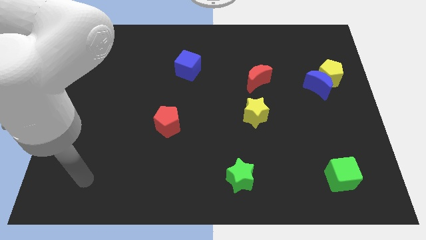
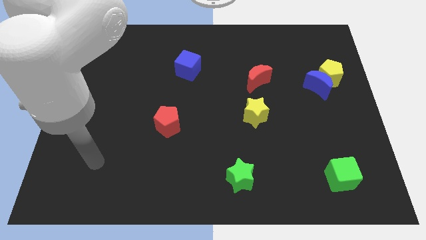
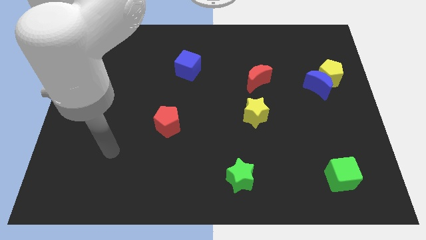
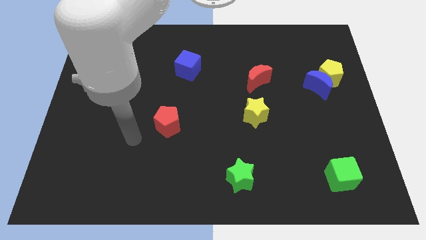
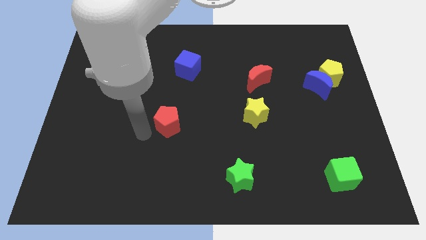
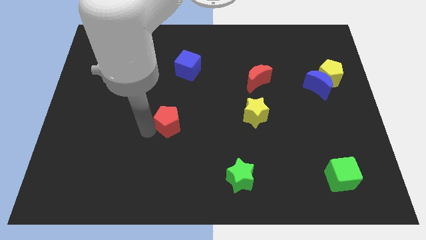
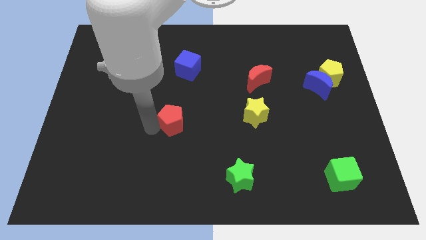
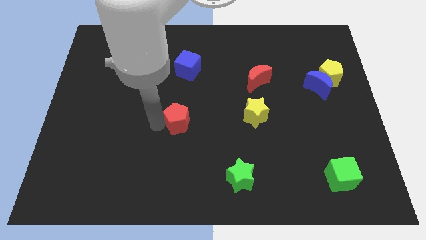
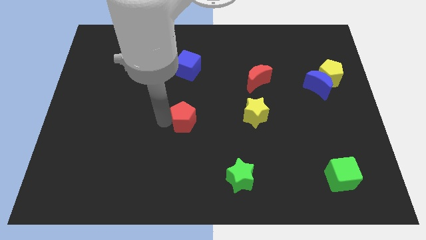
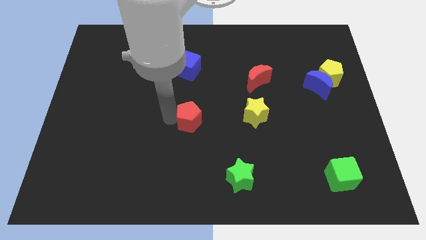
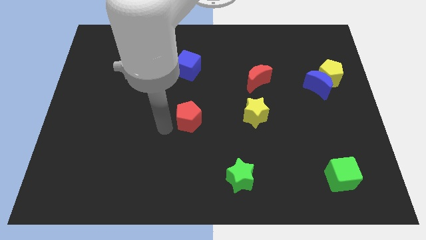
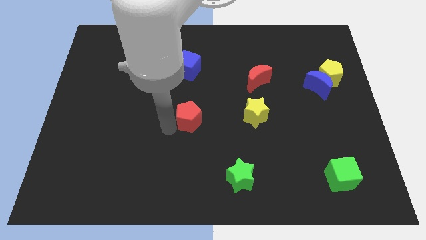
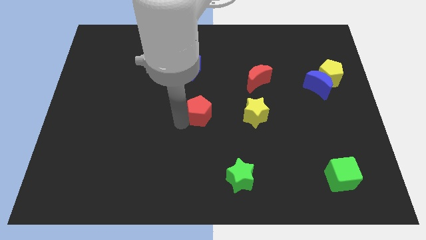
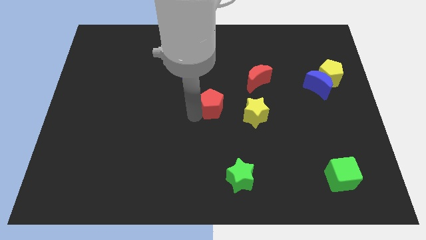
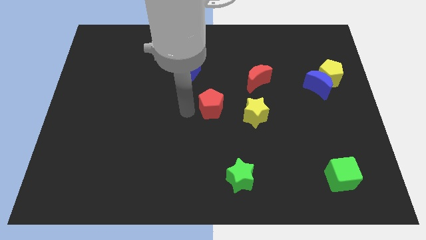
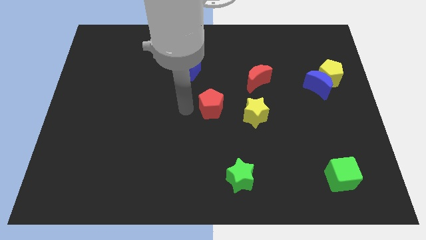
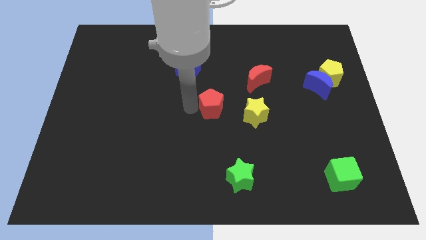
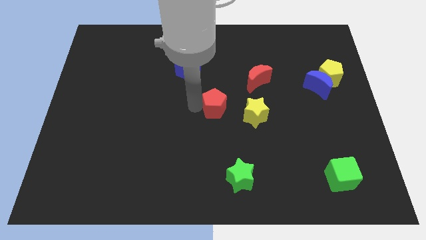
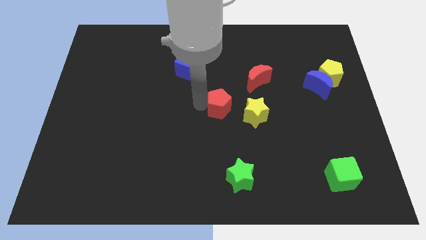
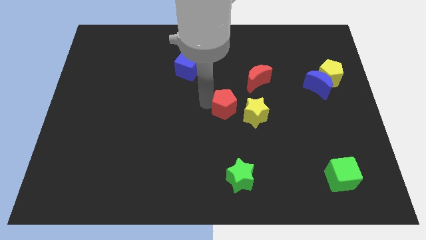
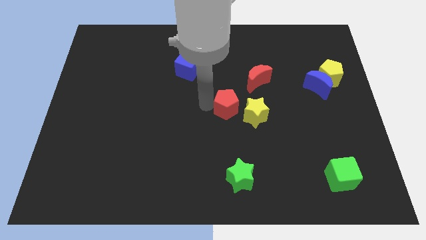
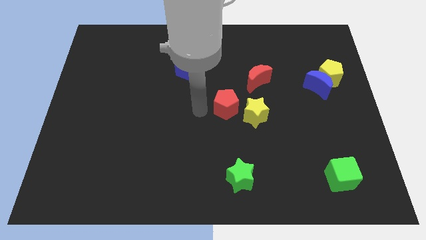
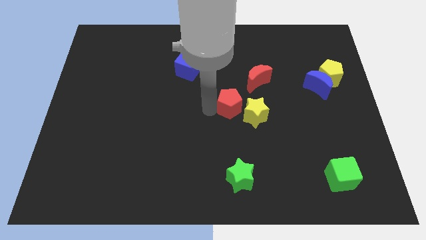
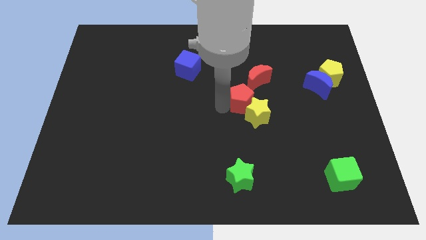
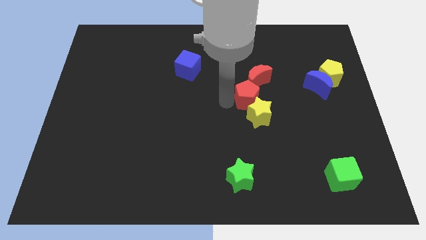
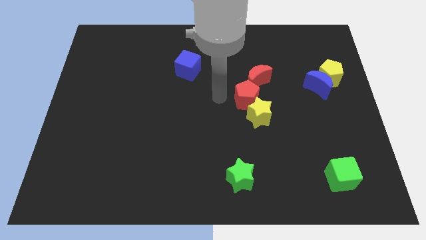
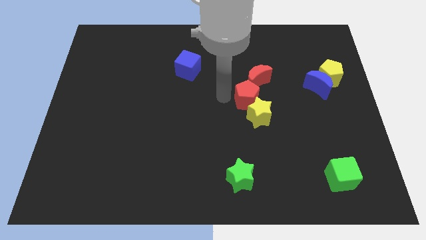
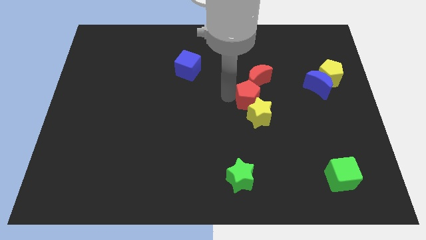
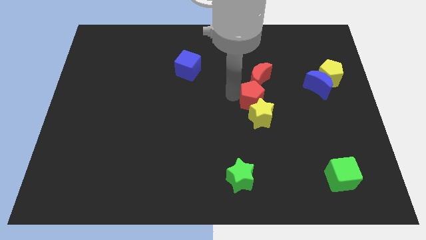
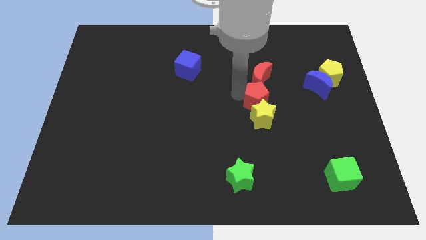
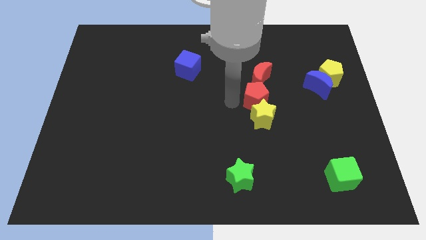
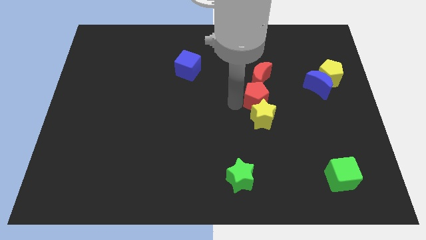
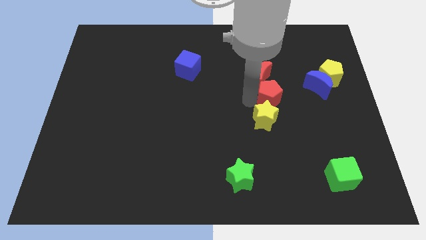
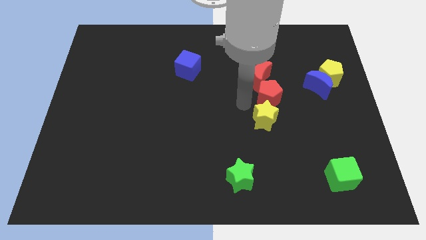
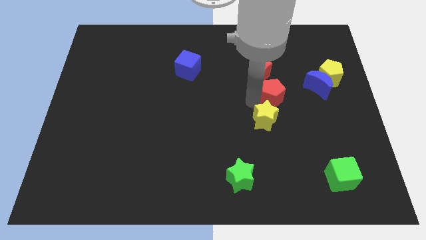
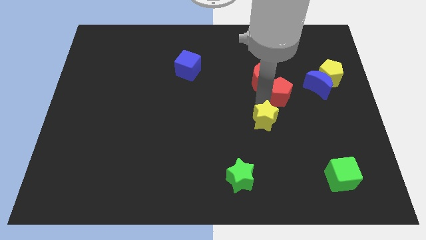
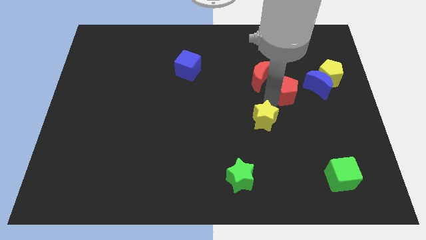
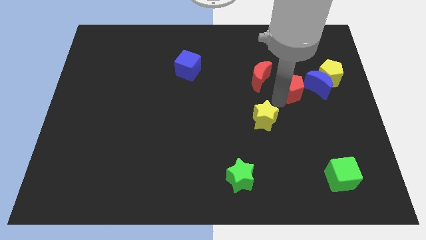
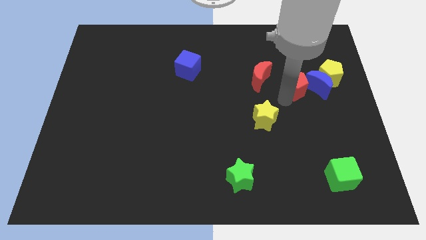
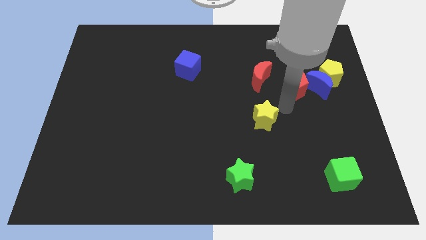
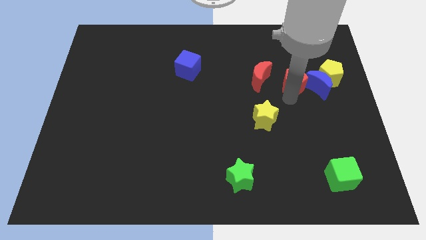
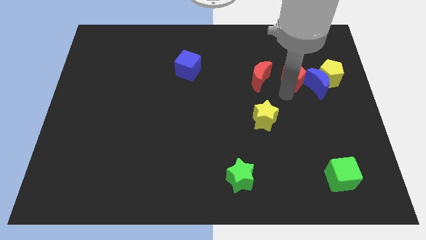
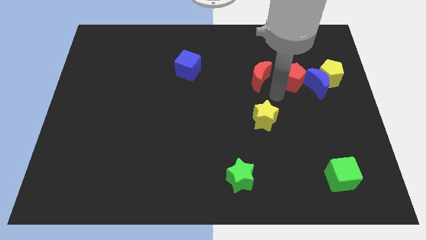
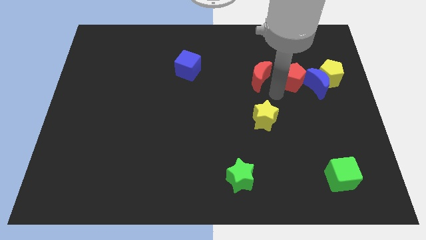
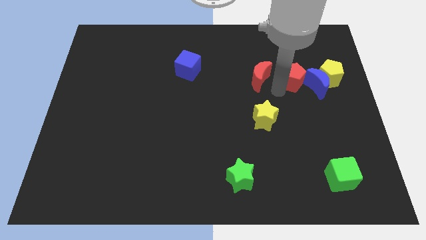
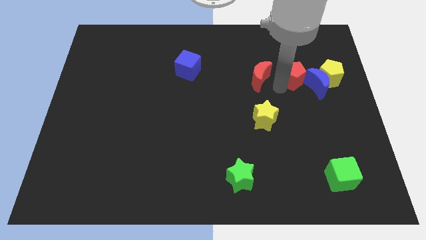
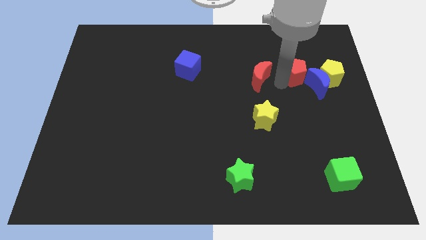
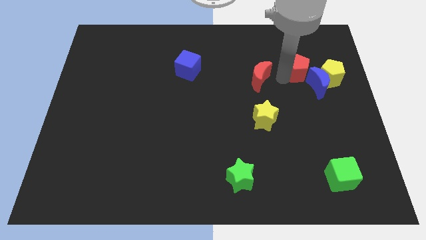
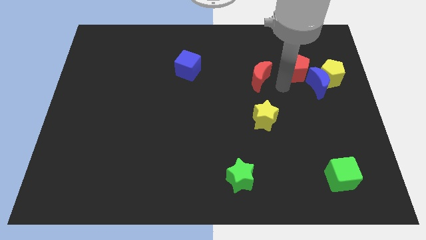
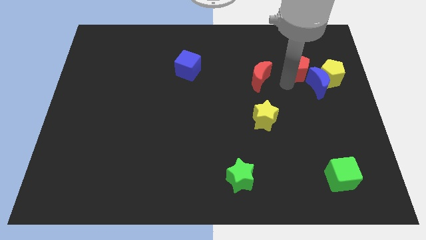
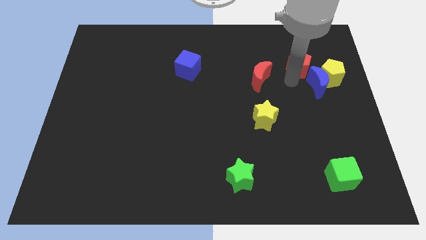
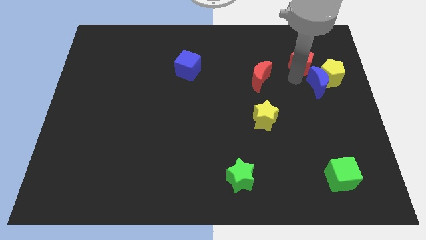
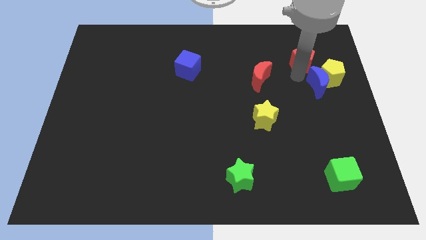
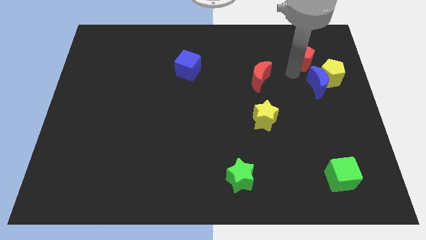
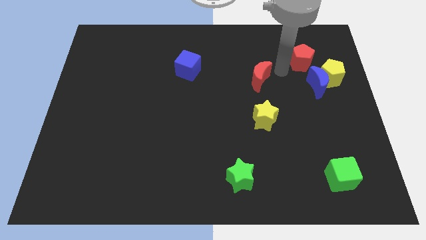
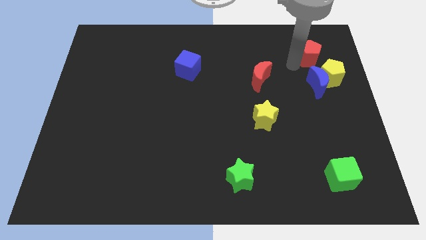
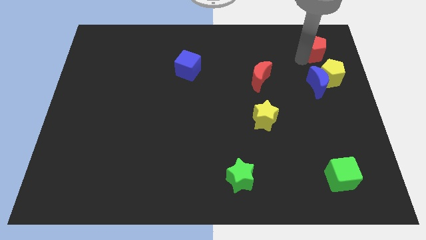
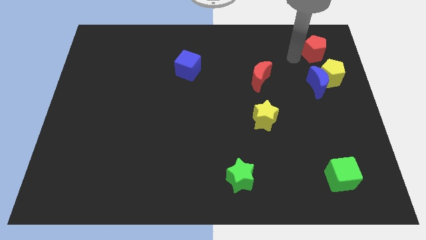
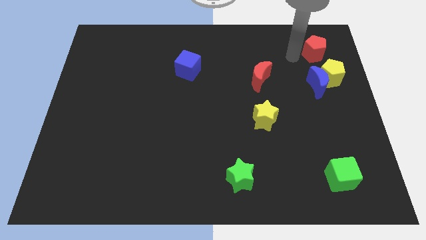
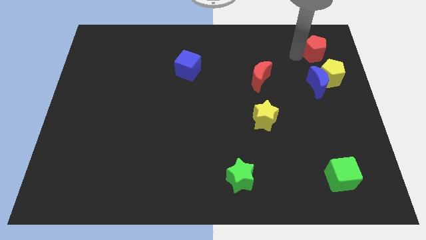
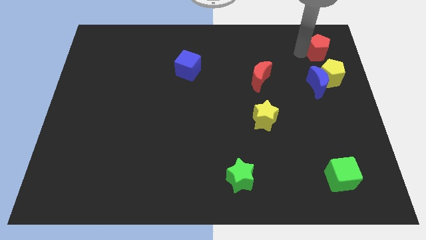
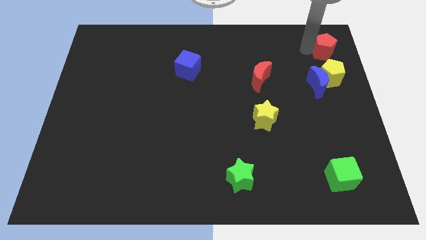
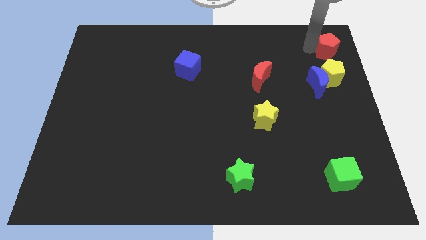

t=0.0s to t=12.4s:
move the red pentagon to the upper right corner
